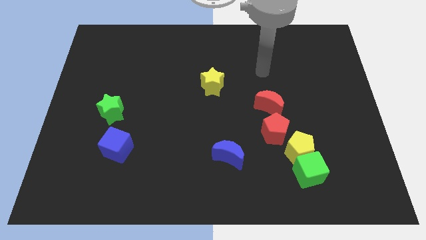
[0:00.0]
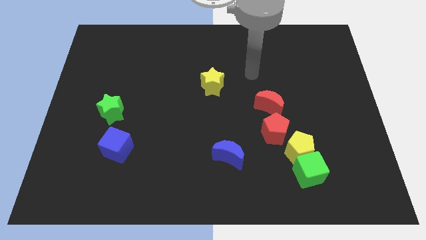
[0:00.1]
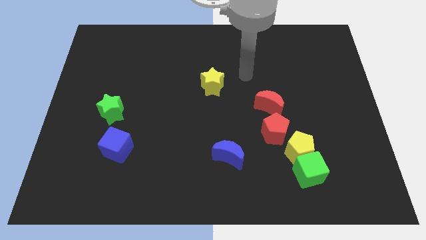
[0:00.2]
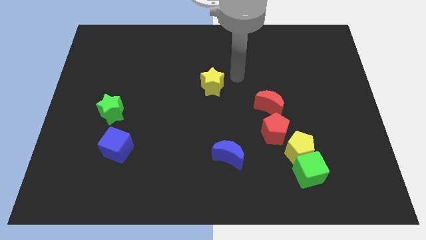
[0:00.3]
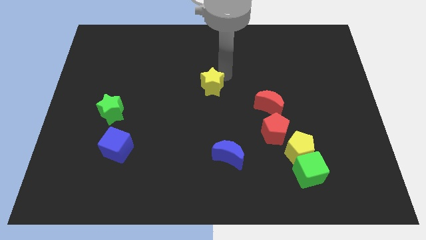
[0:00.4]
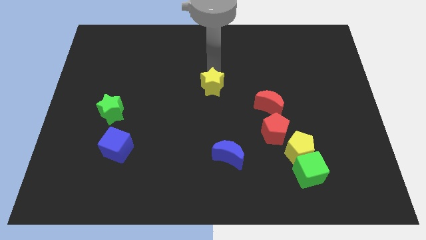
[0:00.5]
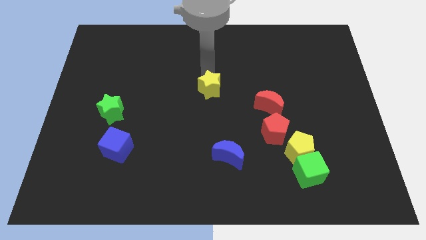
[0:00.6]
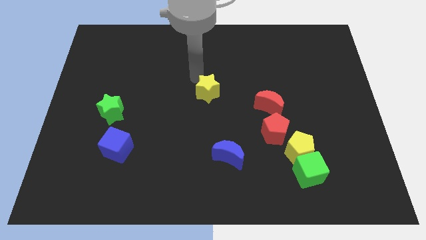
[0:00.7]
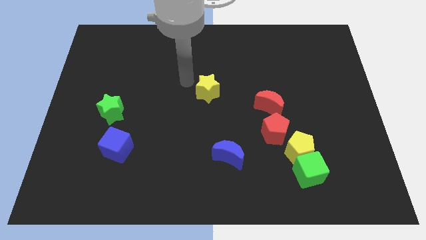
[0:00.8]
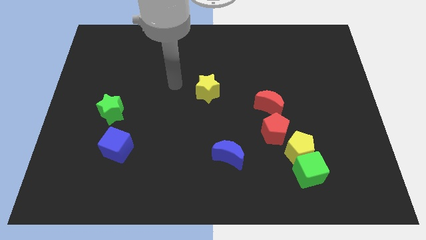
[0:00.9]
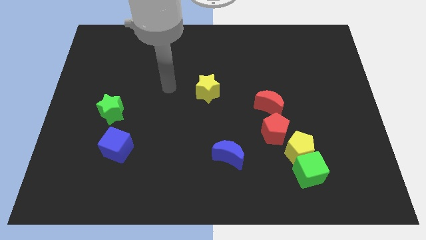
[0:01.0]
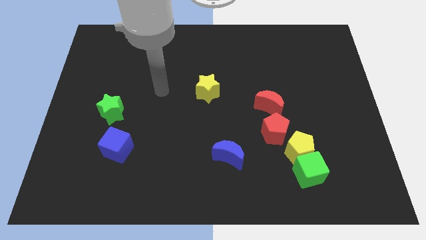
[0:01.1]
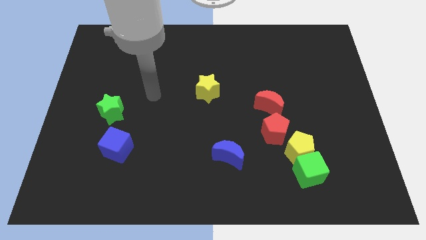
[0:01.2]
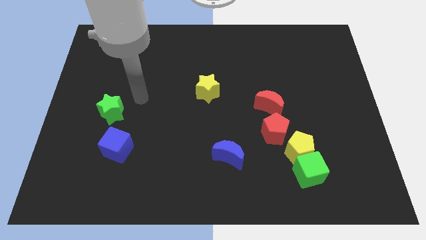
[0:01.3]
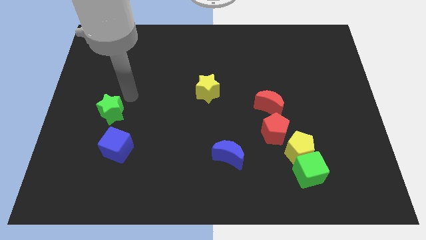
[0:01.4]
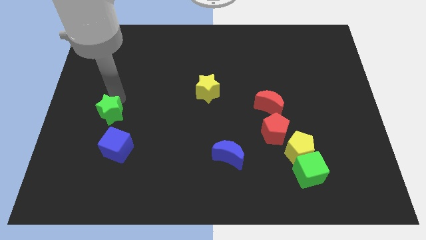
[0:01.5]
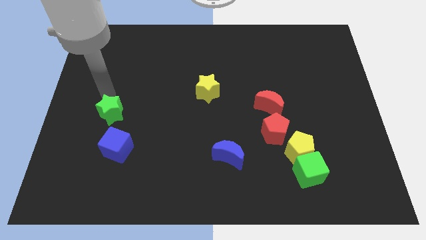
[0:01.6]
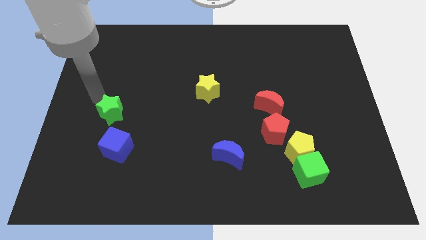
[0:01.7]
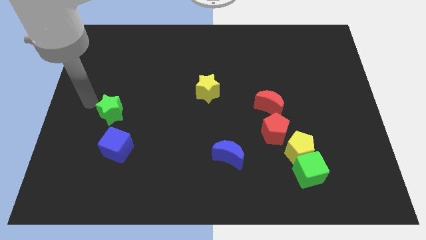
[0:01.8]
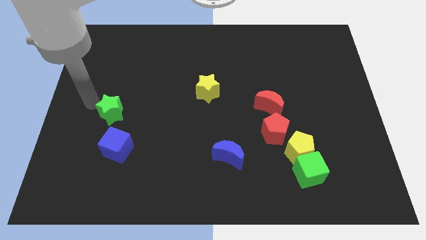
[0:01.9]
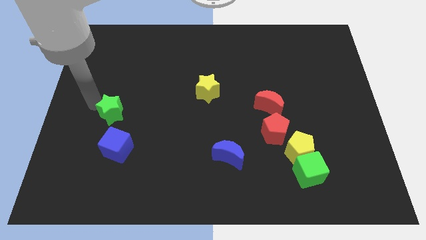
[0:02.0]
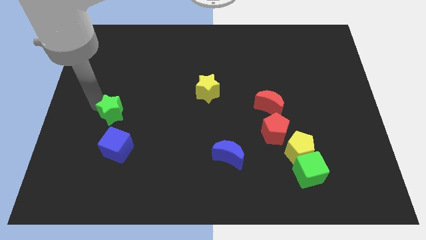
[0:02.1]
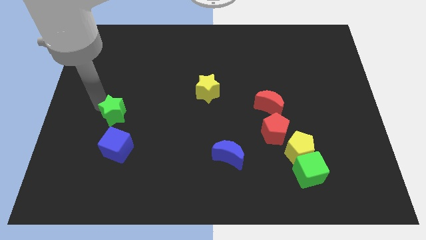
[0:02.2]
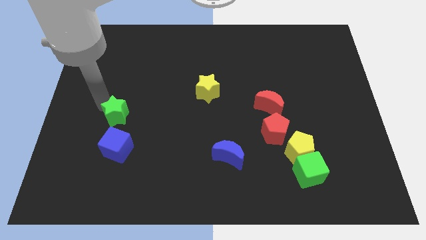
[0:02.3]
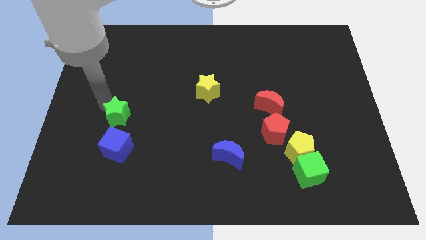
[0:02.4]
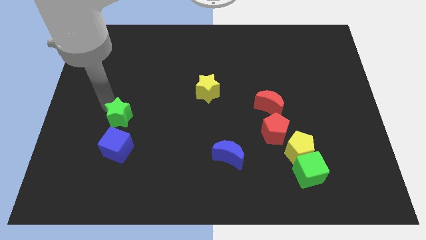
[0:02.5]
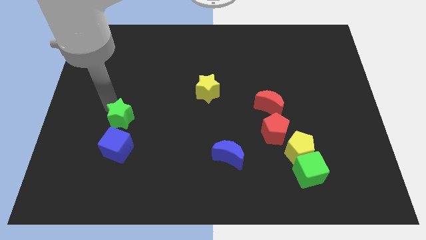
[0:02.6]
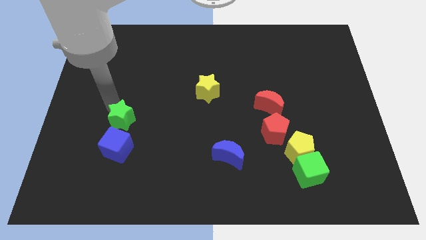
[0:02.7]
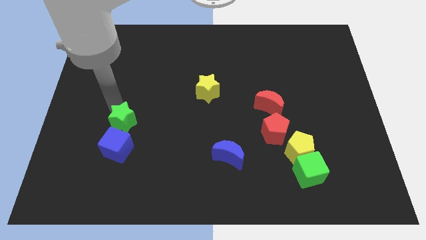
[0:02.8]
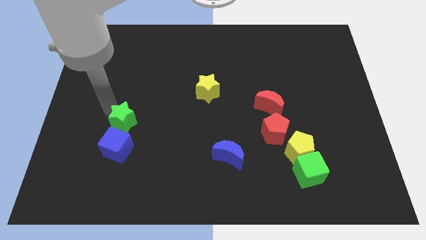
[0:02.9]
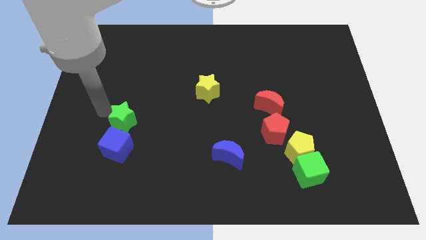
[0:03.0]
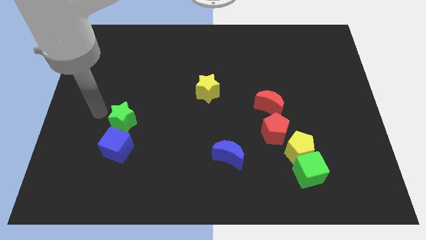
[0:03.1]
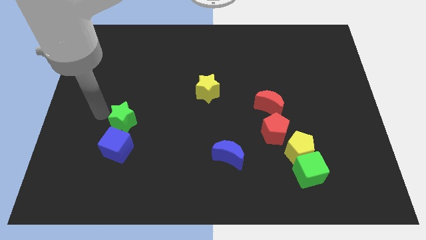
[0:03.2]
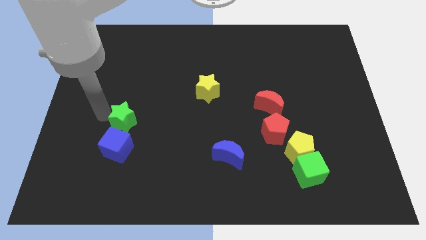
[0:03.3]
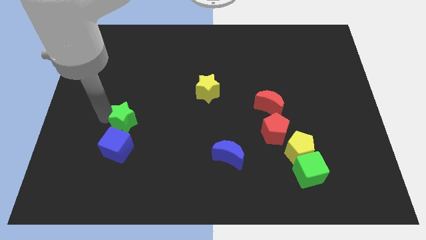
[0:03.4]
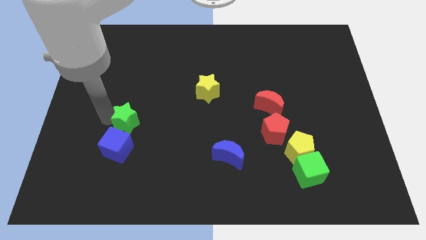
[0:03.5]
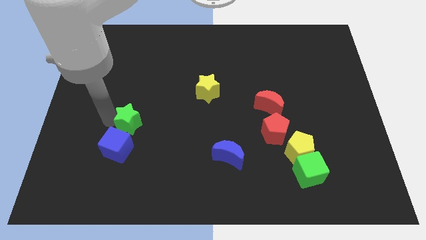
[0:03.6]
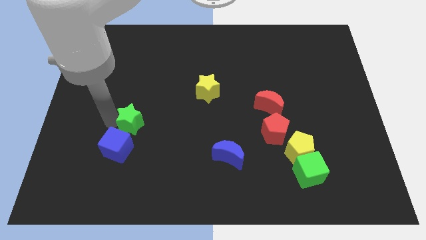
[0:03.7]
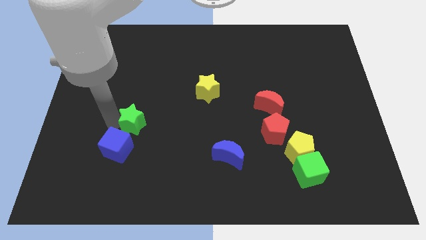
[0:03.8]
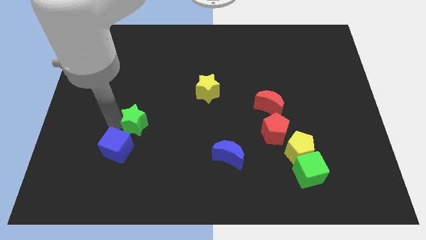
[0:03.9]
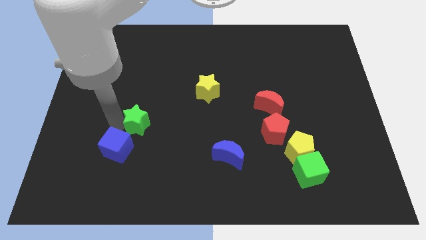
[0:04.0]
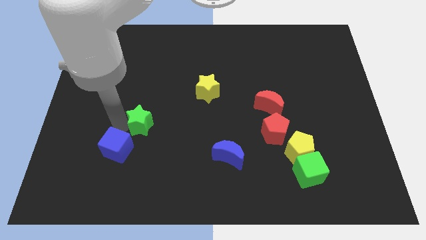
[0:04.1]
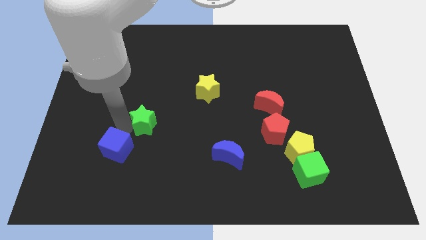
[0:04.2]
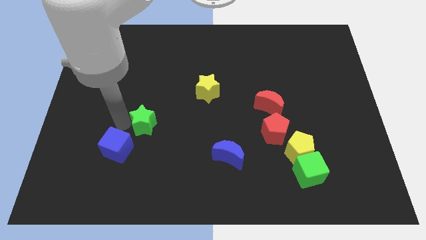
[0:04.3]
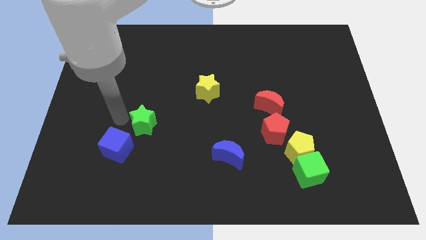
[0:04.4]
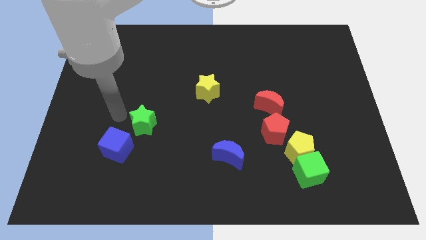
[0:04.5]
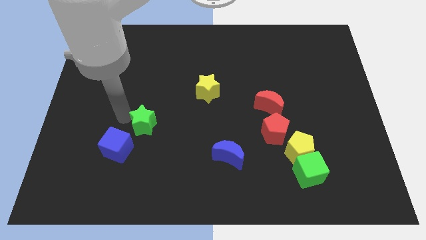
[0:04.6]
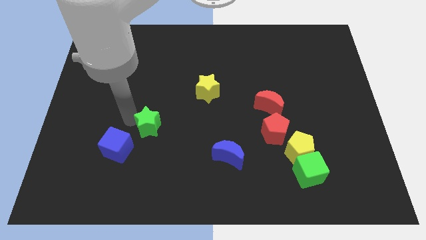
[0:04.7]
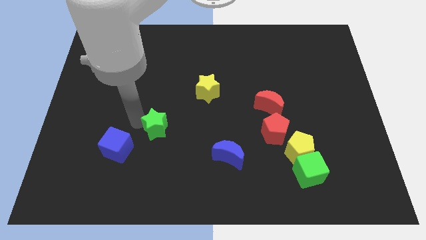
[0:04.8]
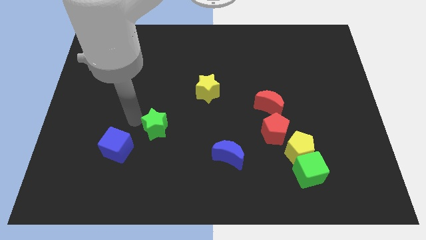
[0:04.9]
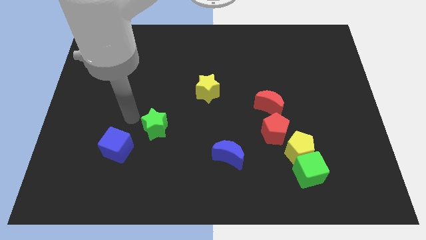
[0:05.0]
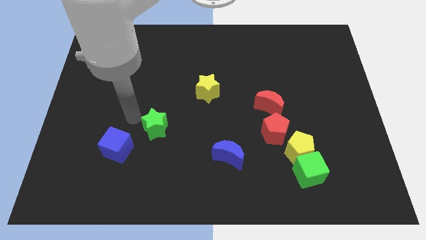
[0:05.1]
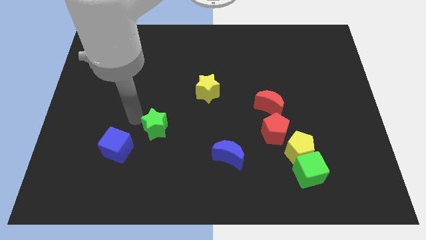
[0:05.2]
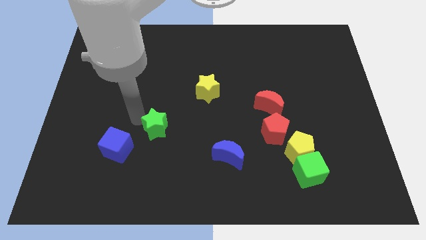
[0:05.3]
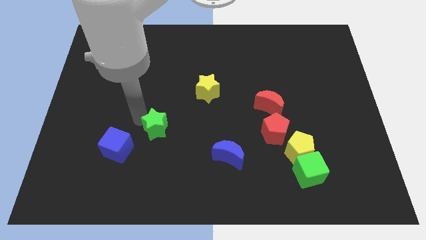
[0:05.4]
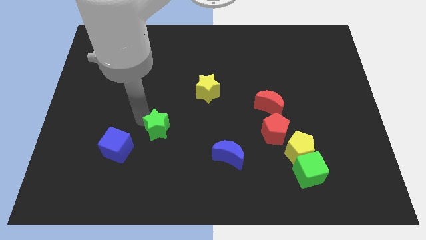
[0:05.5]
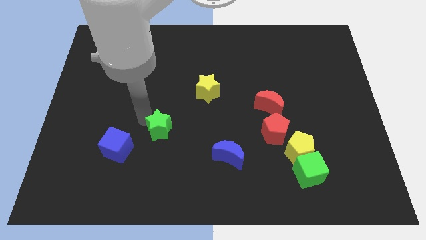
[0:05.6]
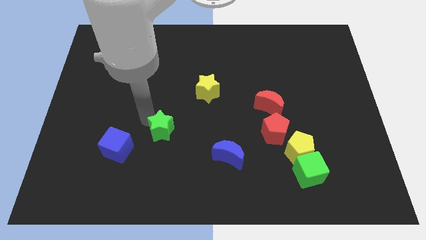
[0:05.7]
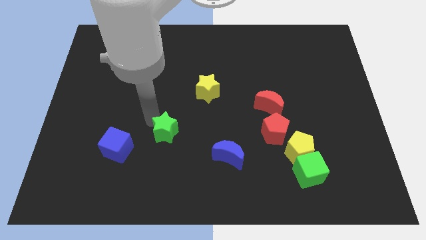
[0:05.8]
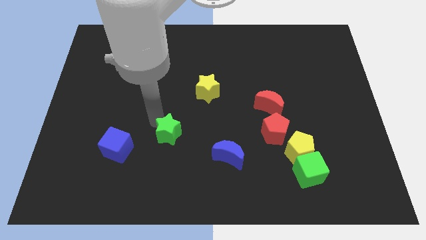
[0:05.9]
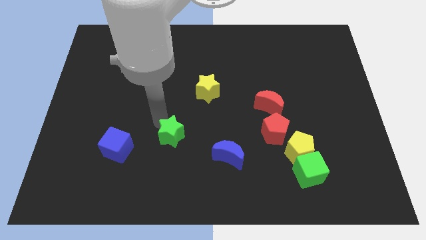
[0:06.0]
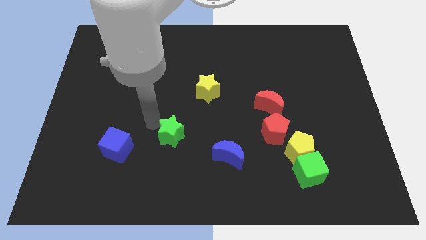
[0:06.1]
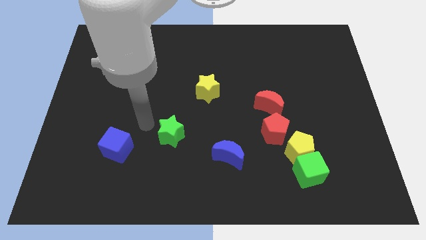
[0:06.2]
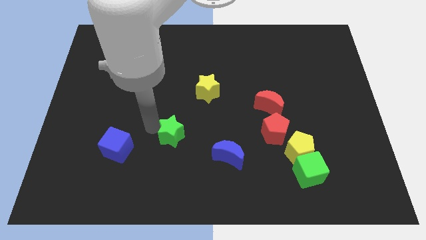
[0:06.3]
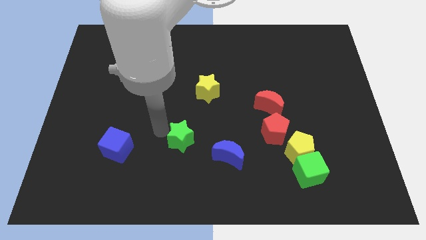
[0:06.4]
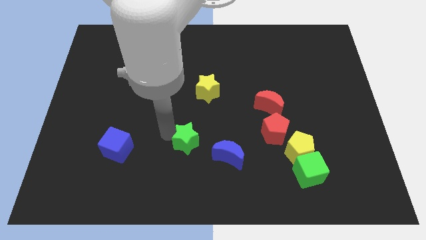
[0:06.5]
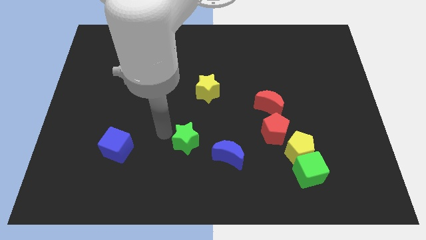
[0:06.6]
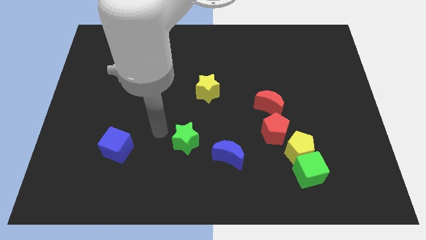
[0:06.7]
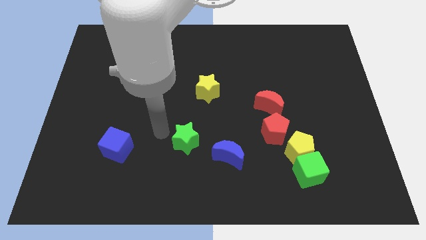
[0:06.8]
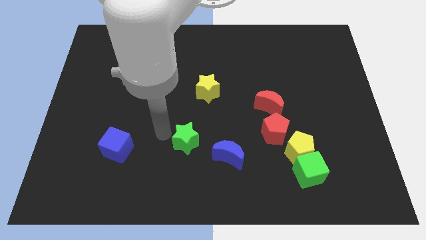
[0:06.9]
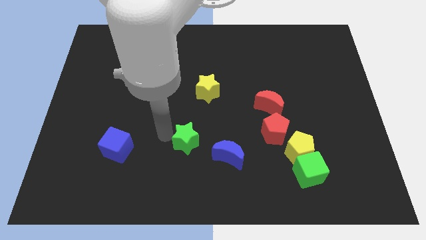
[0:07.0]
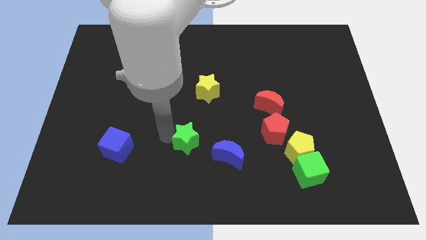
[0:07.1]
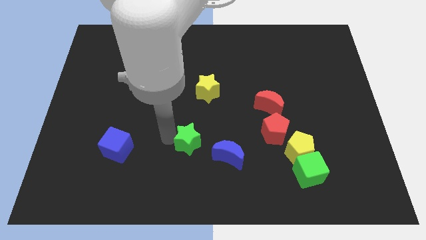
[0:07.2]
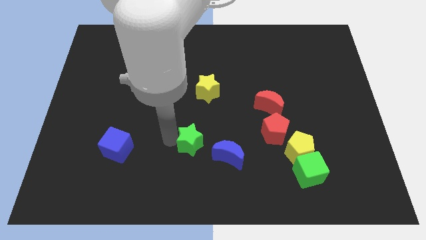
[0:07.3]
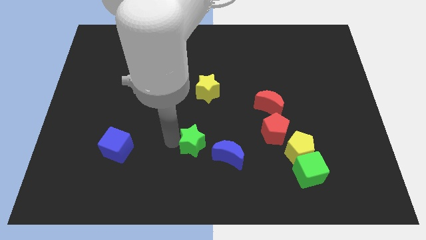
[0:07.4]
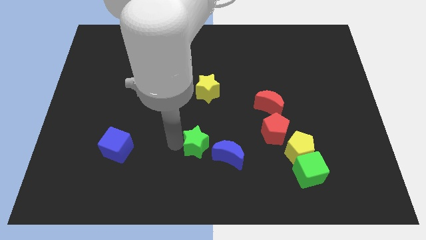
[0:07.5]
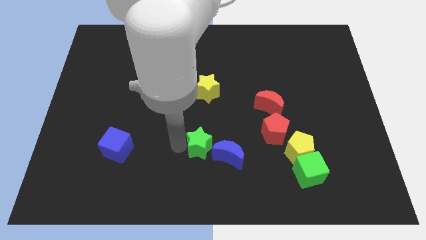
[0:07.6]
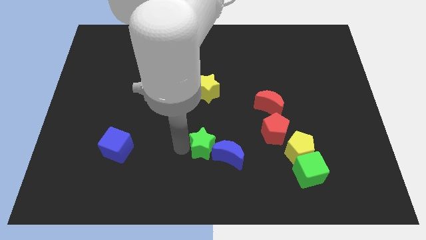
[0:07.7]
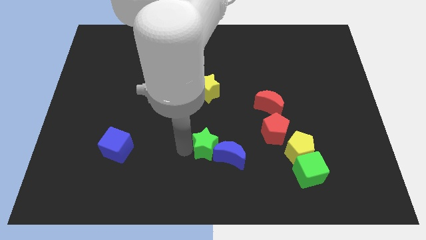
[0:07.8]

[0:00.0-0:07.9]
push the green star to the blue moon
